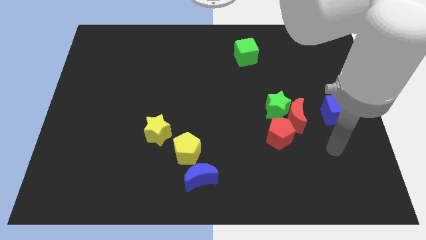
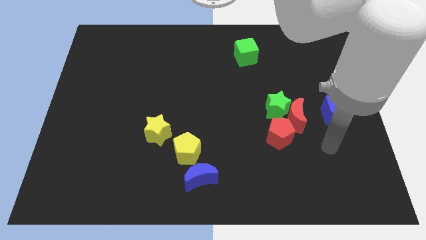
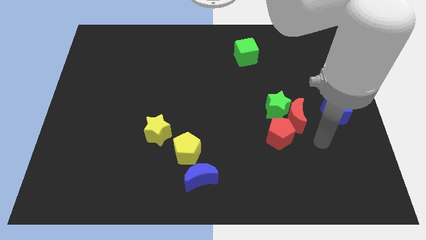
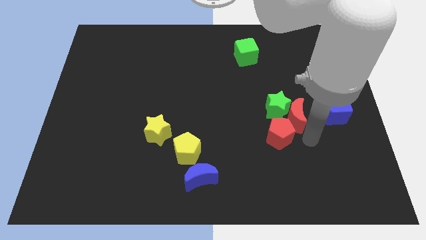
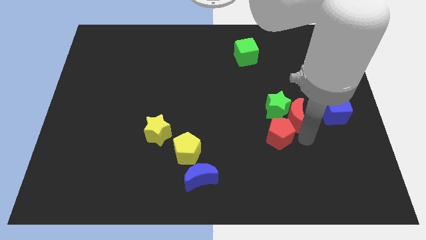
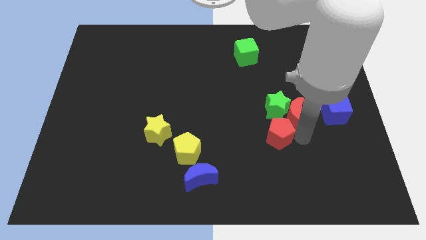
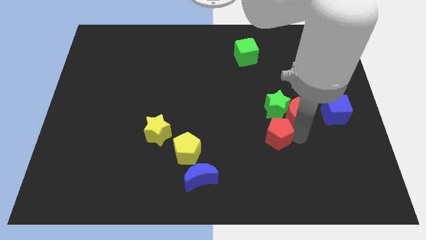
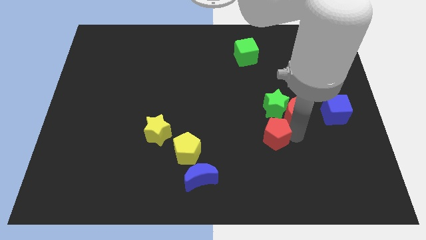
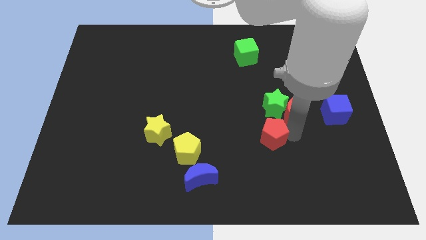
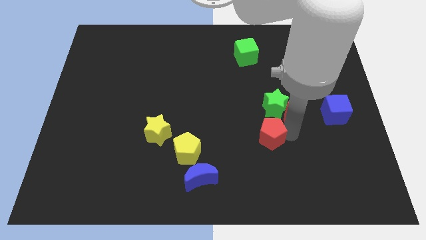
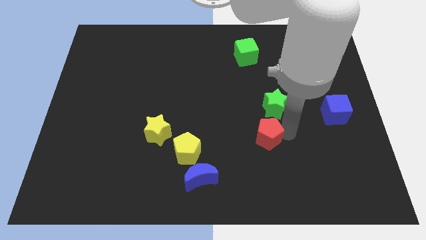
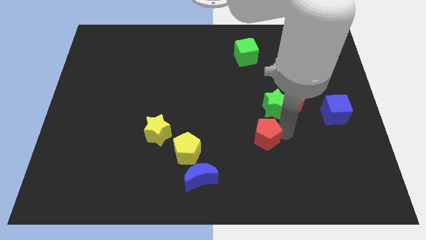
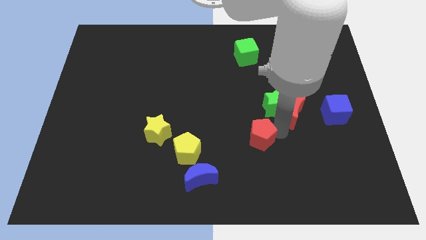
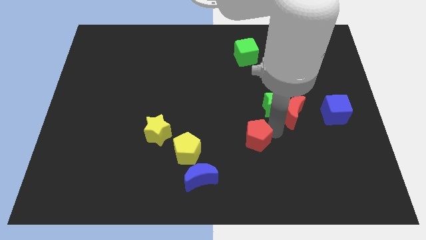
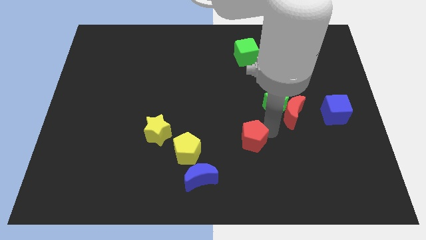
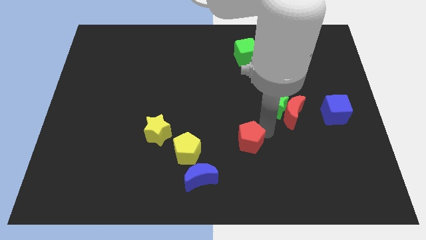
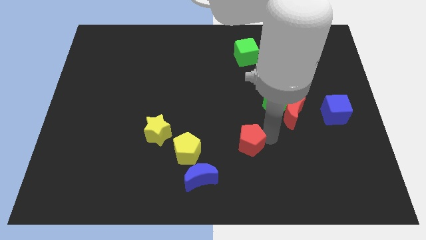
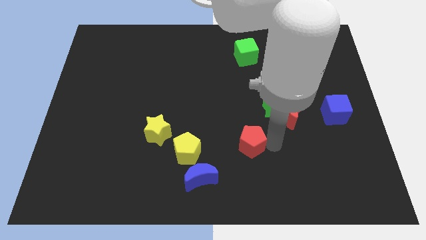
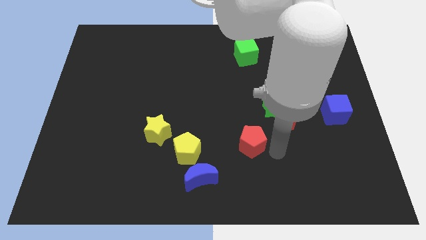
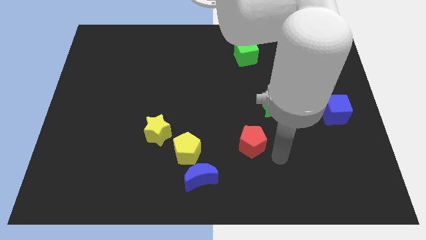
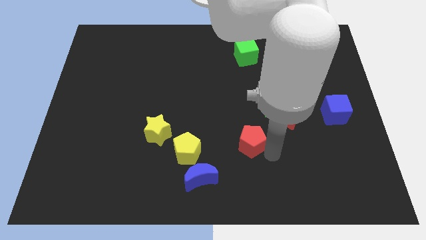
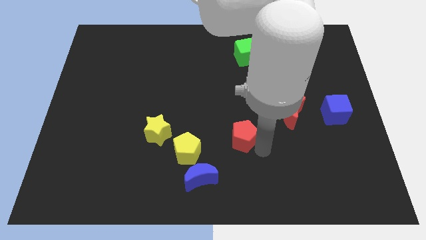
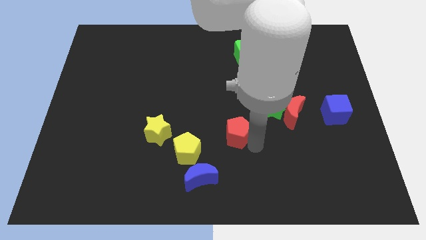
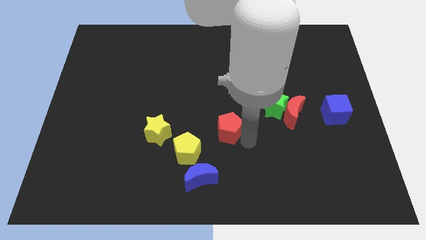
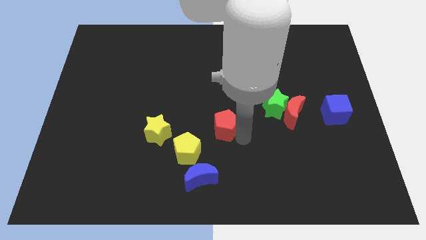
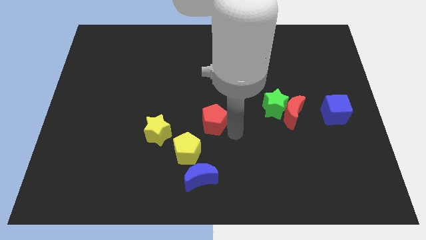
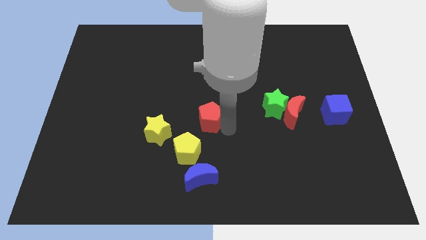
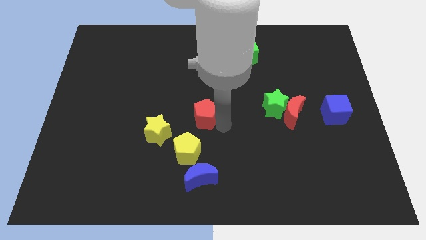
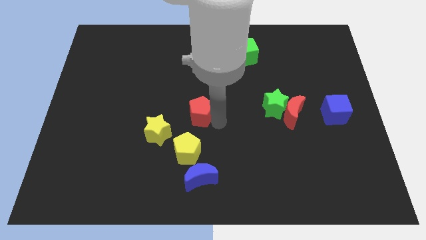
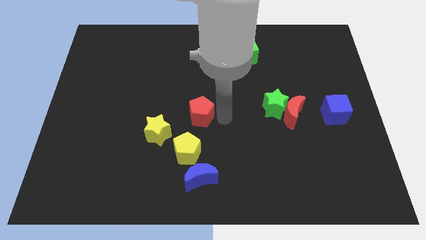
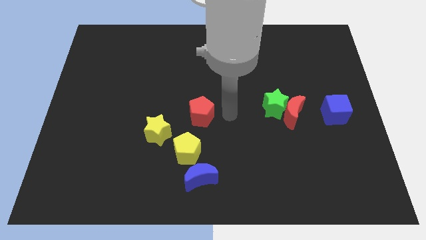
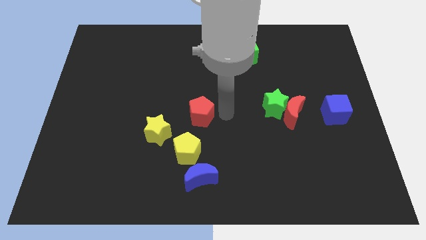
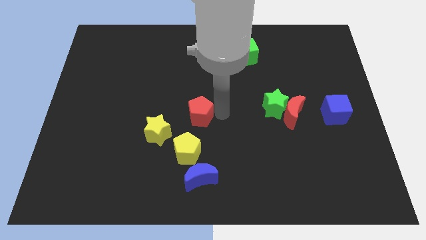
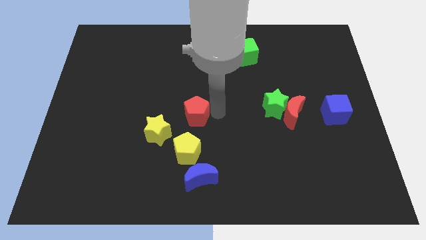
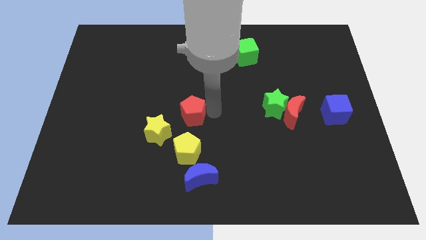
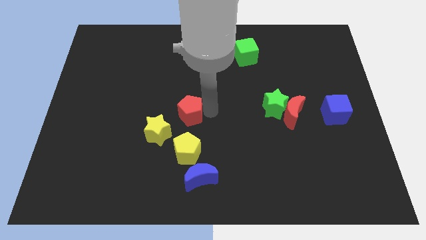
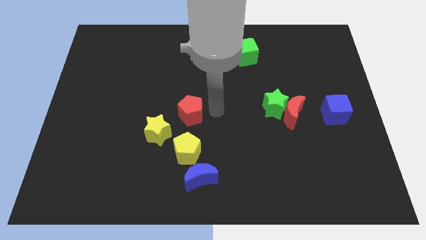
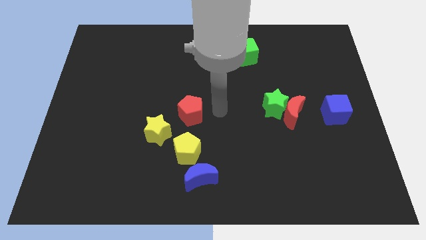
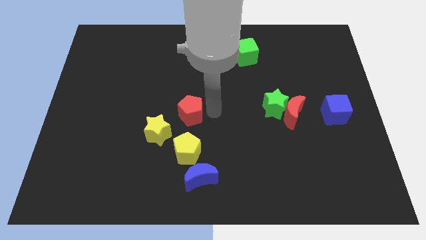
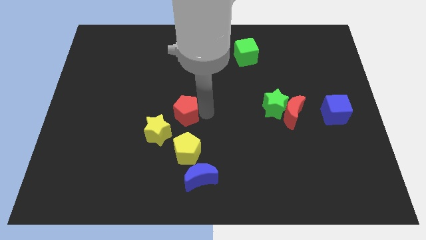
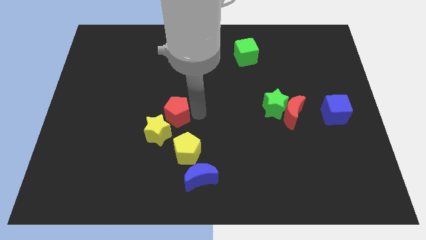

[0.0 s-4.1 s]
push the red pentagon left

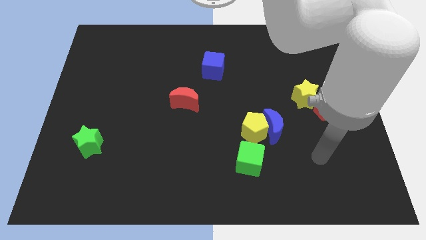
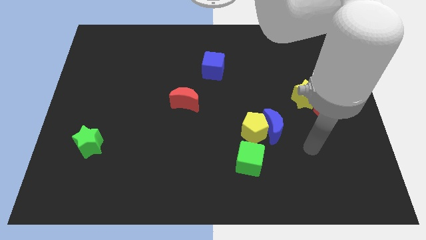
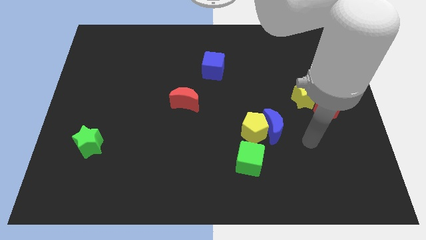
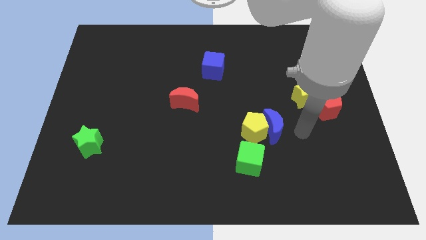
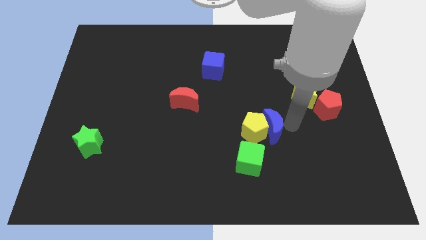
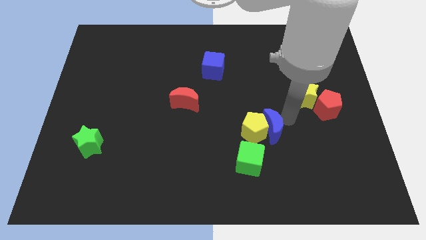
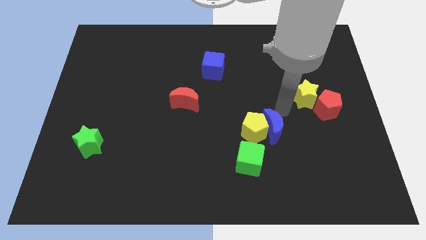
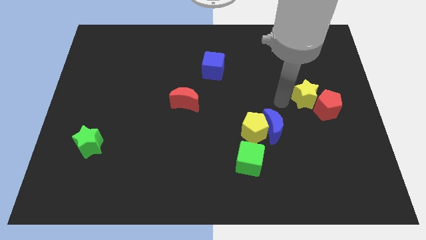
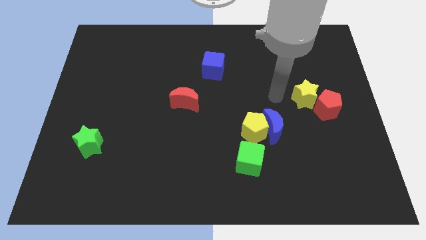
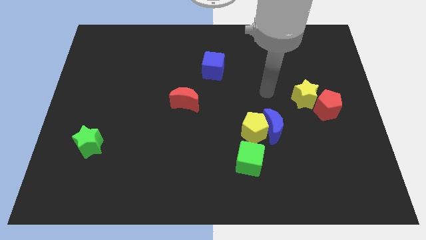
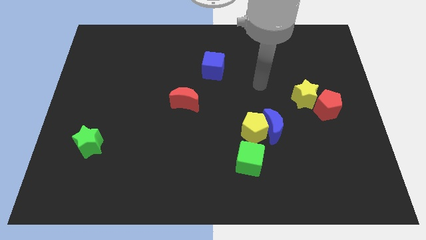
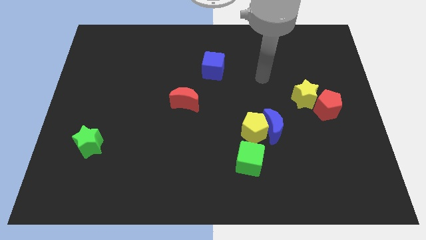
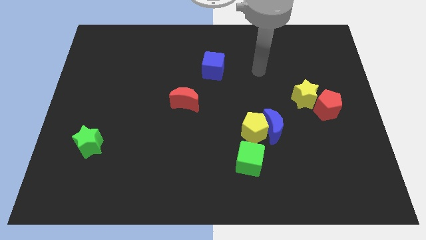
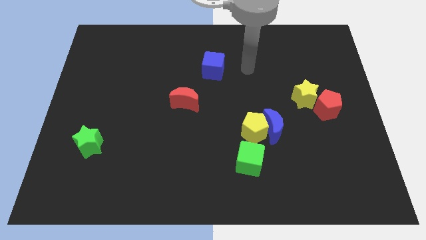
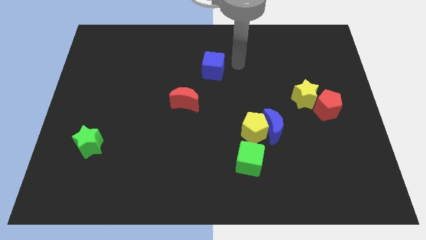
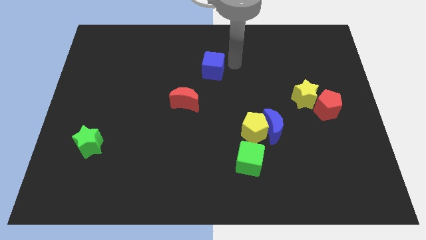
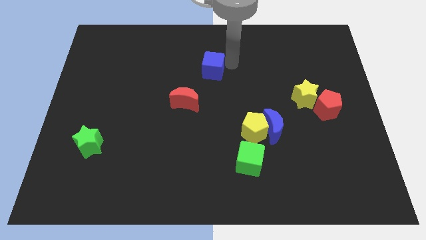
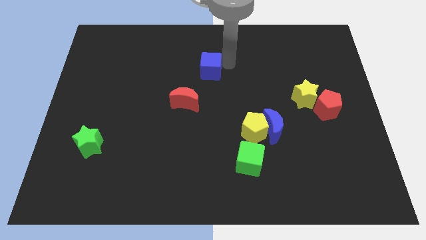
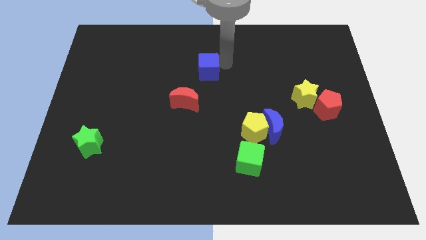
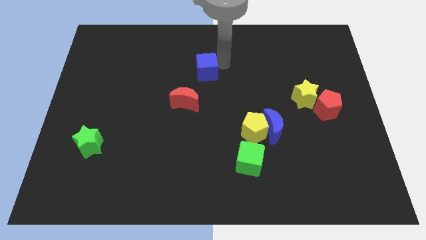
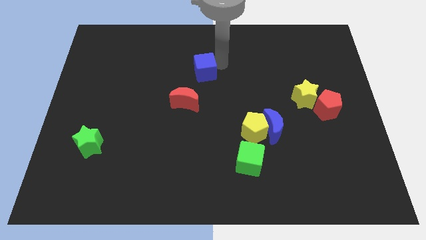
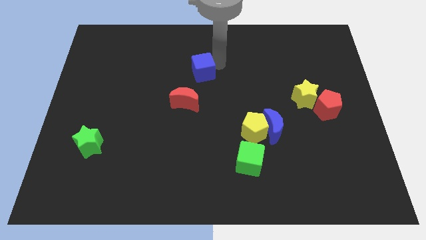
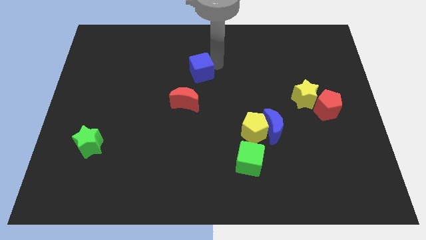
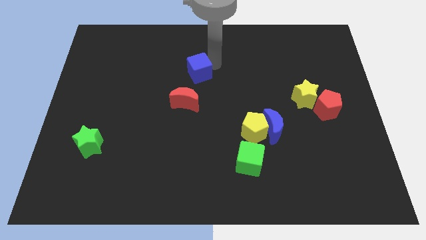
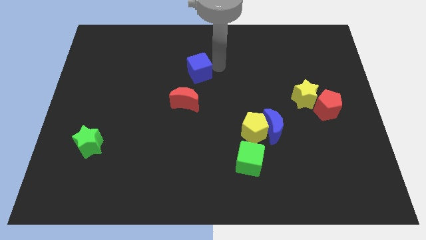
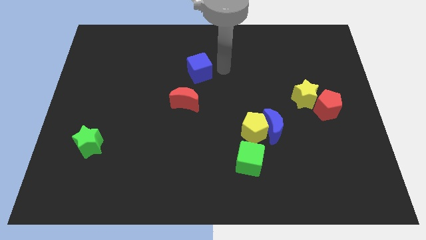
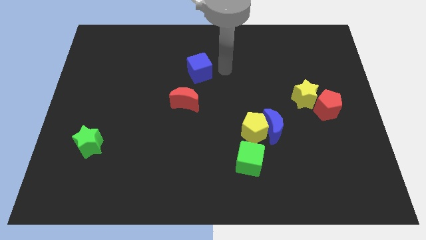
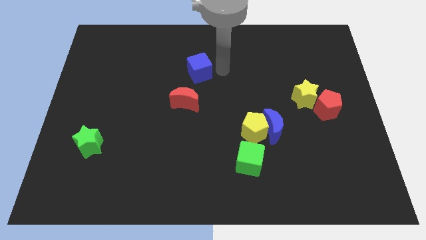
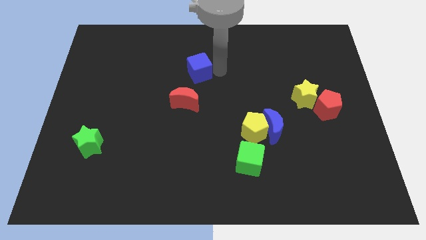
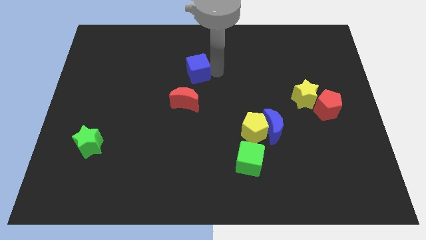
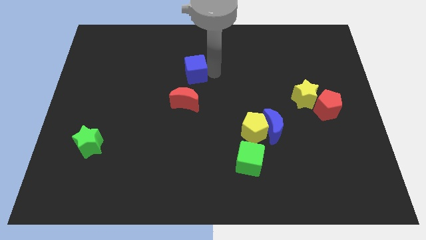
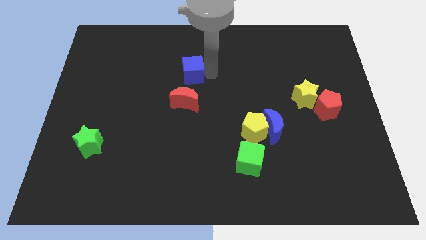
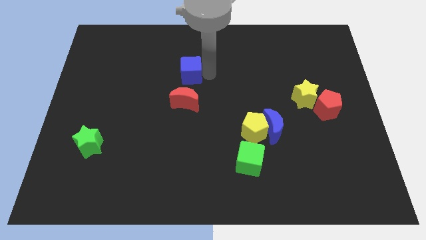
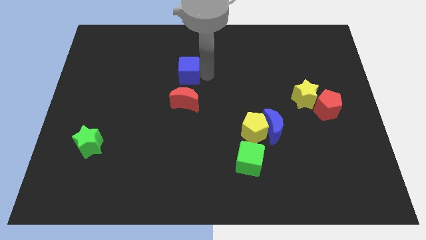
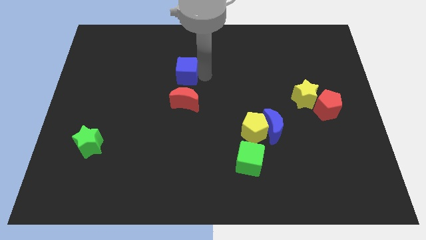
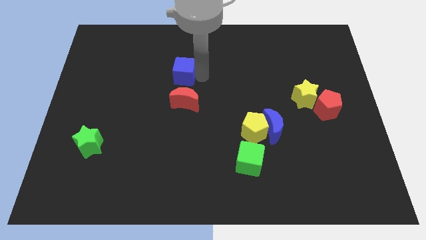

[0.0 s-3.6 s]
move the blue cube left a bit

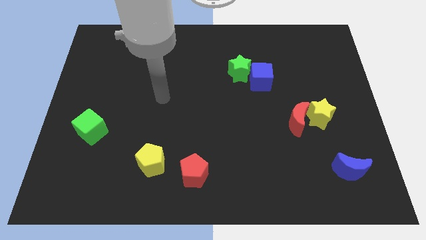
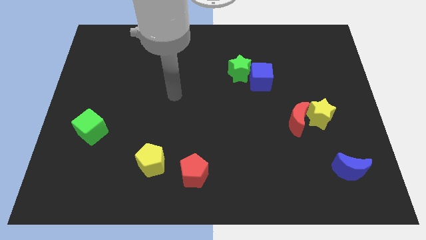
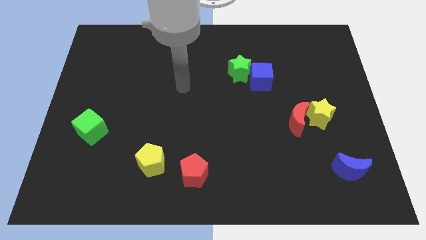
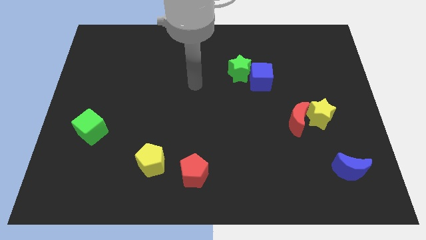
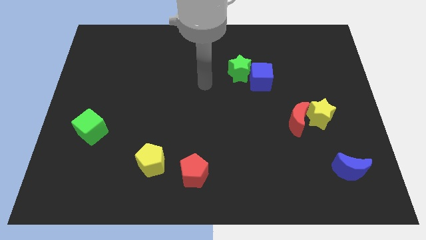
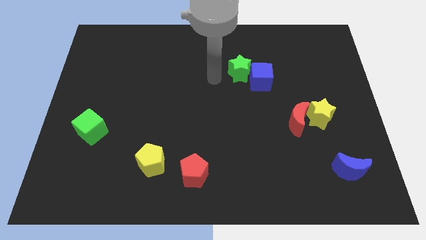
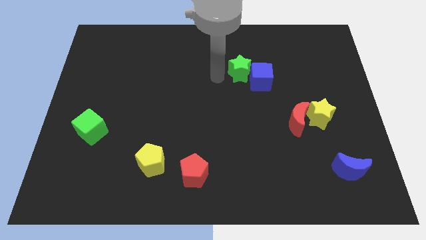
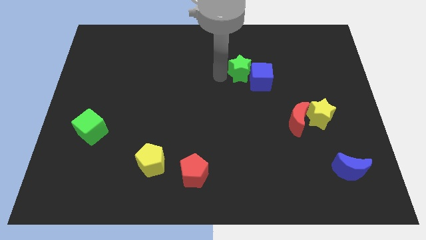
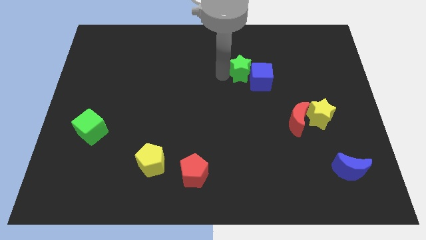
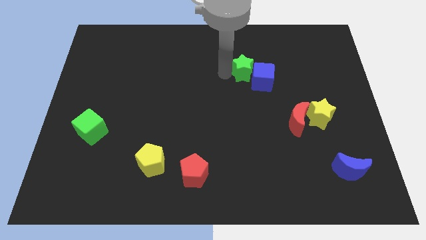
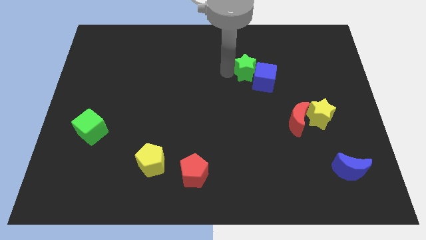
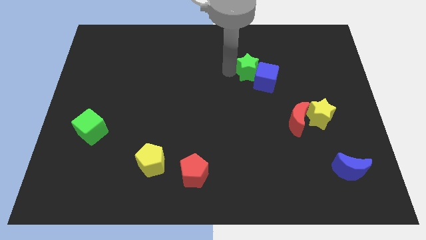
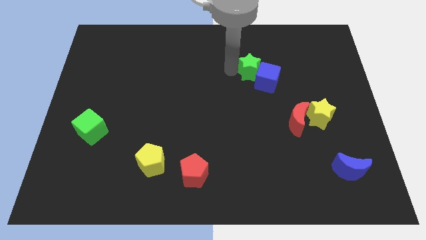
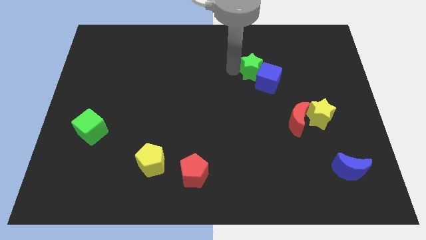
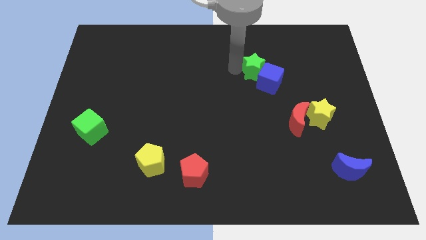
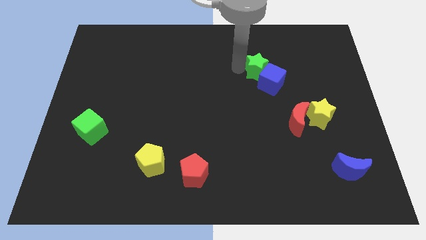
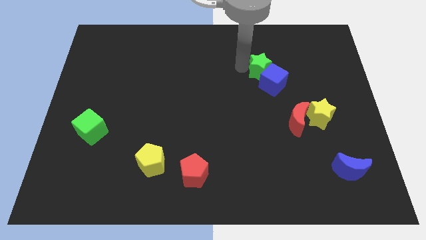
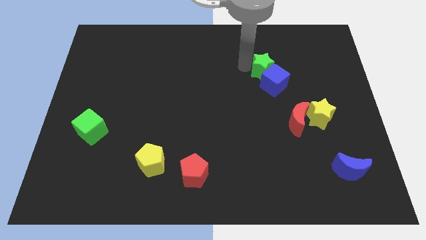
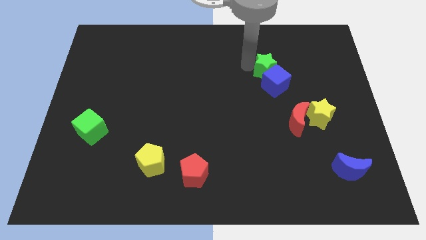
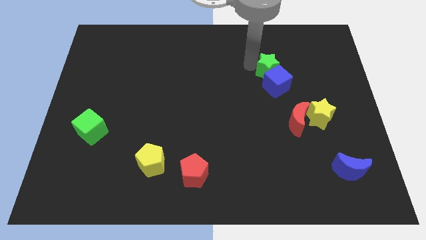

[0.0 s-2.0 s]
push the green star a little to the right
